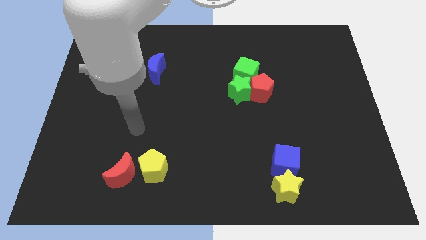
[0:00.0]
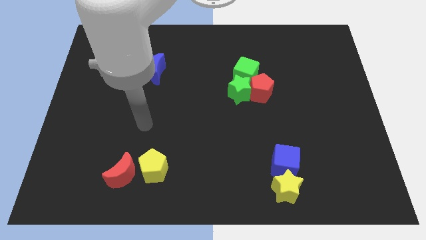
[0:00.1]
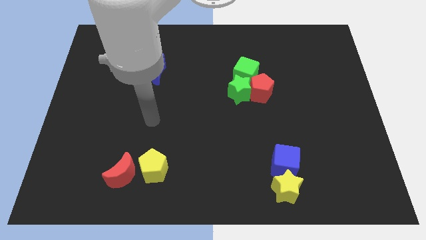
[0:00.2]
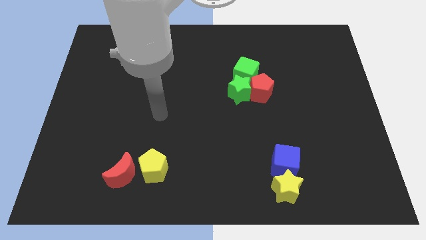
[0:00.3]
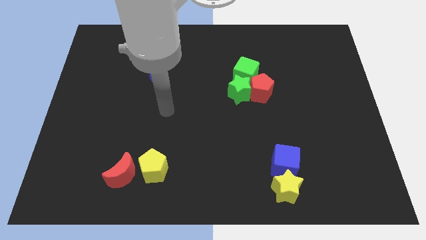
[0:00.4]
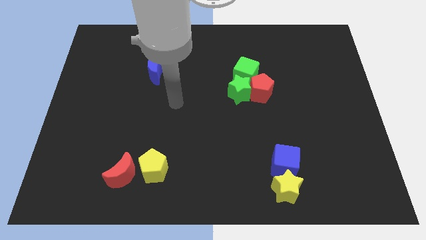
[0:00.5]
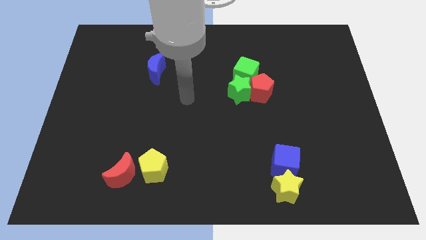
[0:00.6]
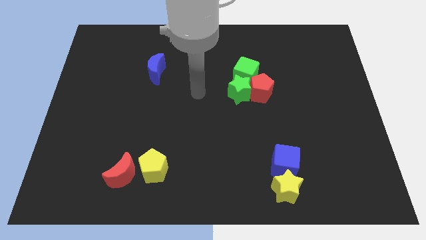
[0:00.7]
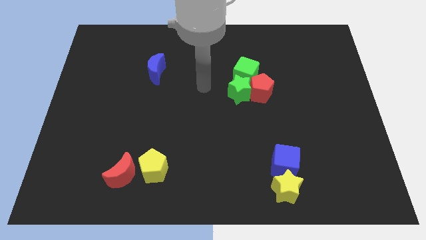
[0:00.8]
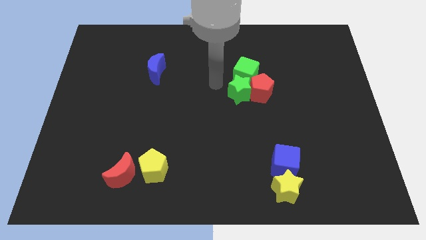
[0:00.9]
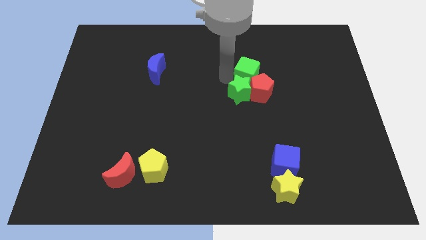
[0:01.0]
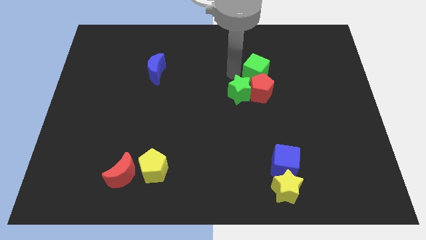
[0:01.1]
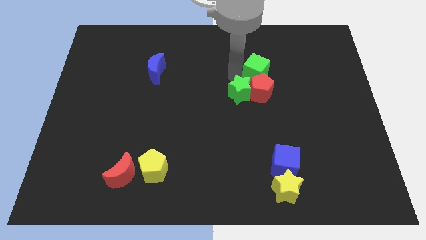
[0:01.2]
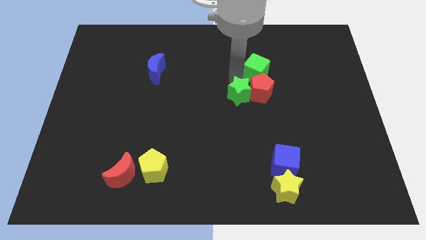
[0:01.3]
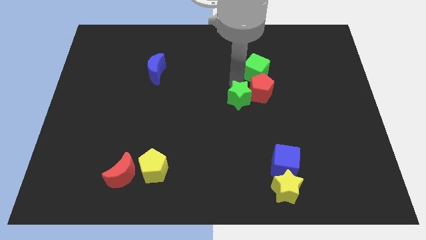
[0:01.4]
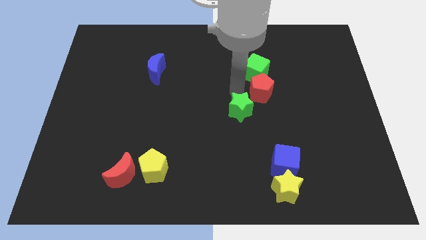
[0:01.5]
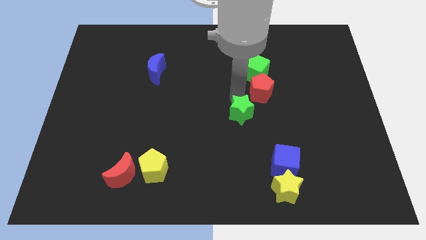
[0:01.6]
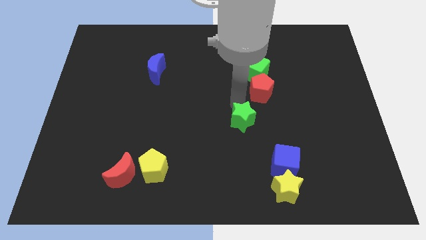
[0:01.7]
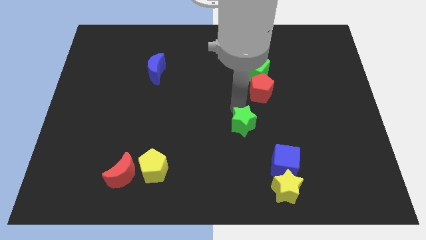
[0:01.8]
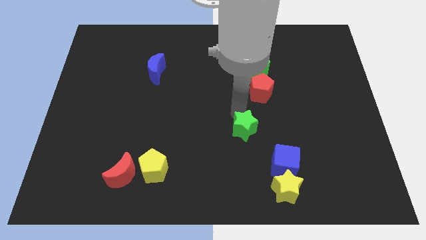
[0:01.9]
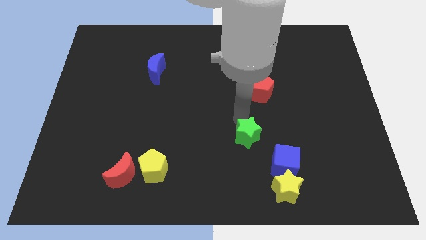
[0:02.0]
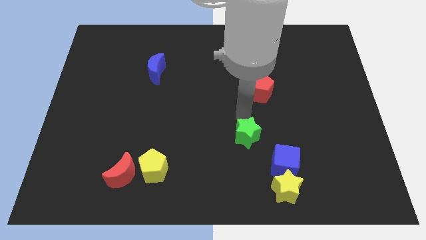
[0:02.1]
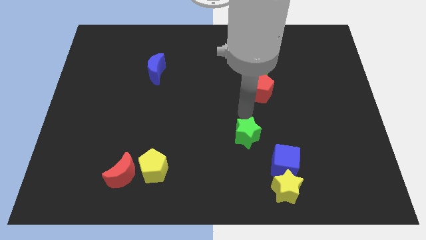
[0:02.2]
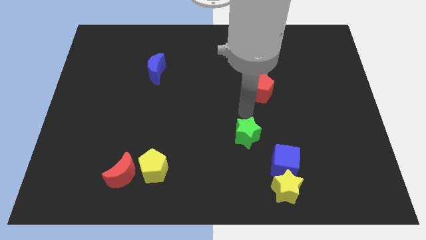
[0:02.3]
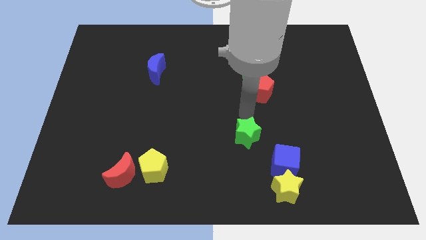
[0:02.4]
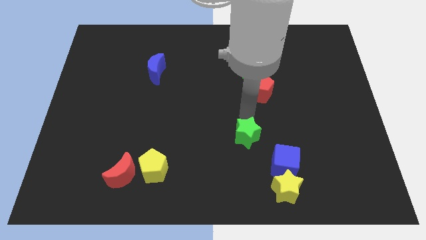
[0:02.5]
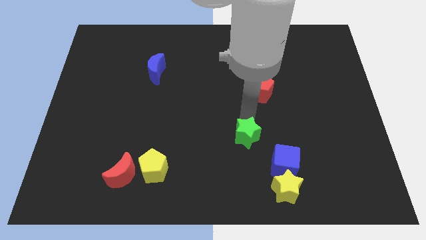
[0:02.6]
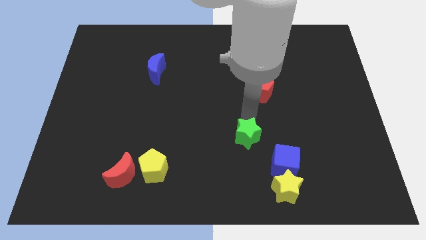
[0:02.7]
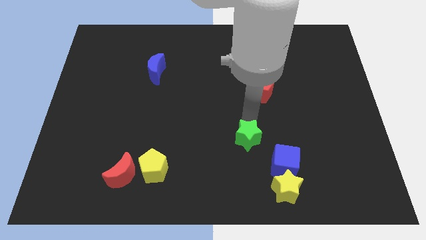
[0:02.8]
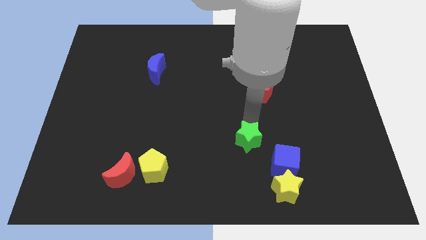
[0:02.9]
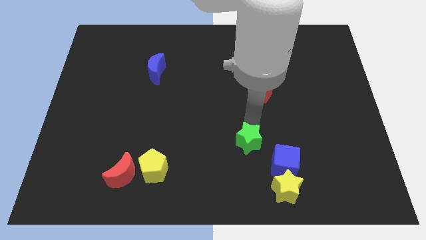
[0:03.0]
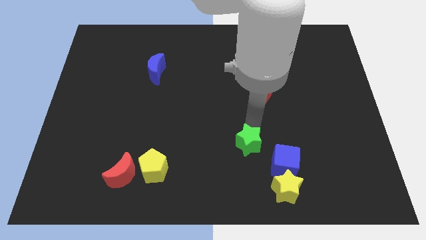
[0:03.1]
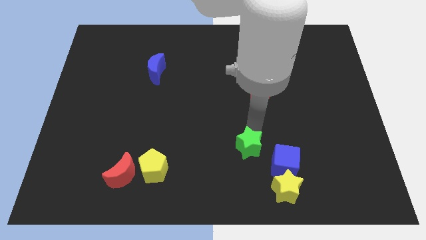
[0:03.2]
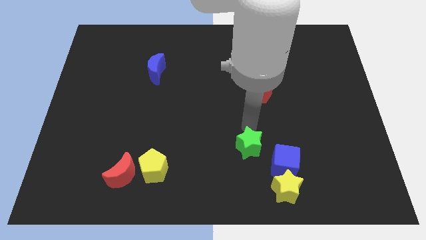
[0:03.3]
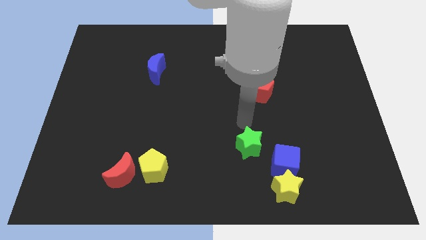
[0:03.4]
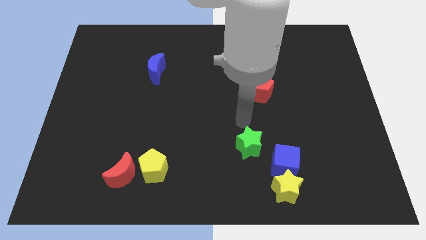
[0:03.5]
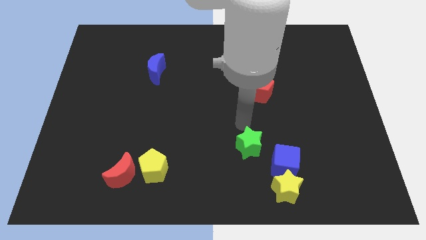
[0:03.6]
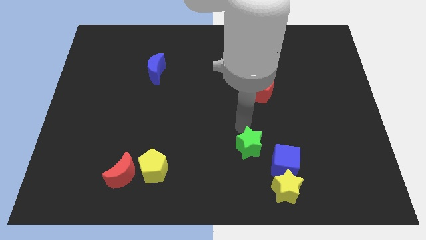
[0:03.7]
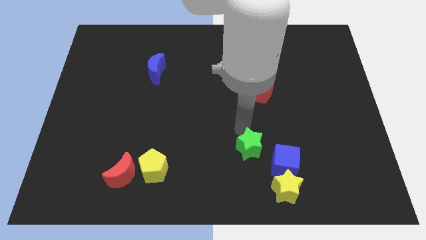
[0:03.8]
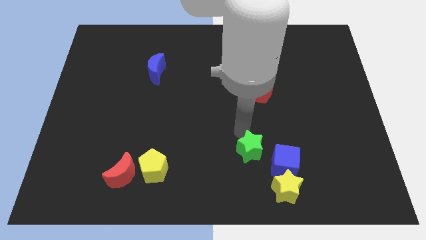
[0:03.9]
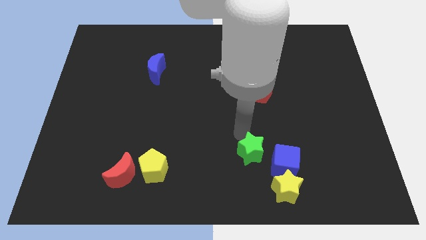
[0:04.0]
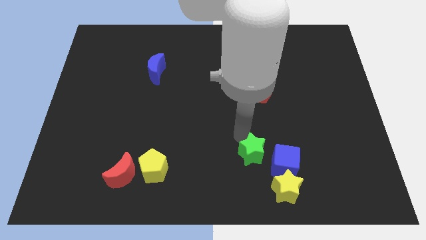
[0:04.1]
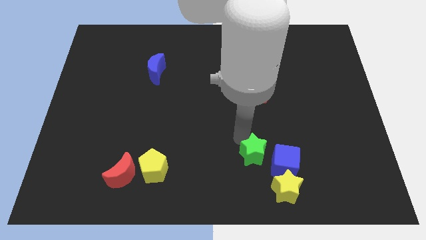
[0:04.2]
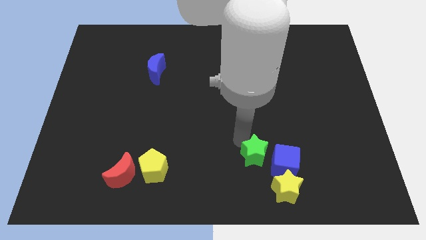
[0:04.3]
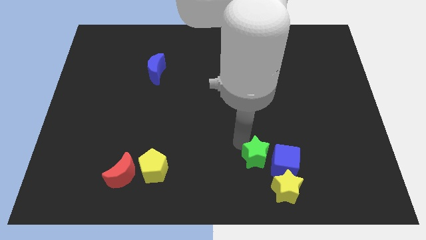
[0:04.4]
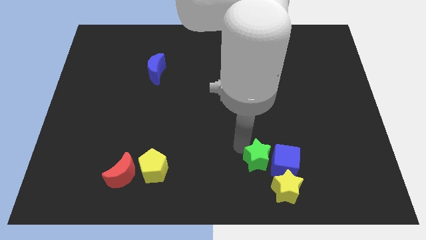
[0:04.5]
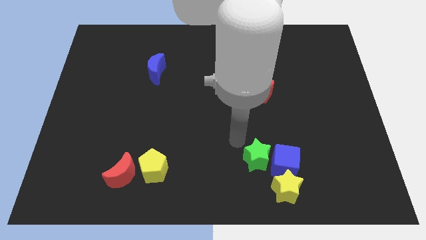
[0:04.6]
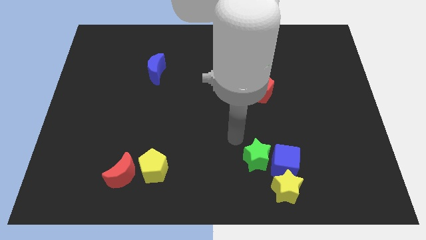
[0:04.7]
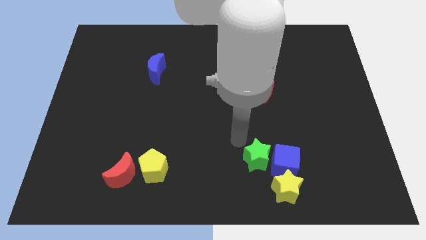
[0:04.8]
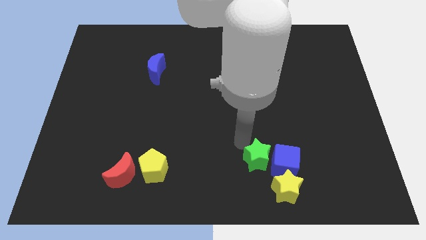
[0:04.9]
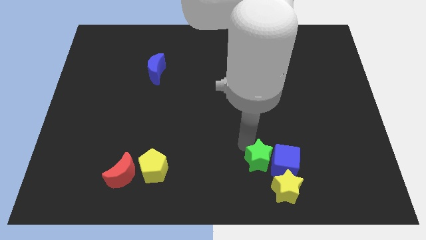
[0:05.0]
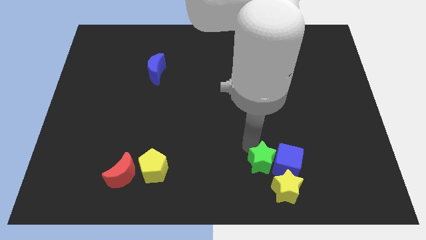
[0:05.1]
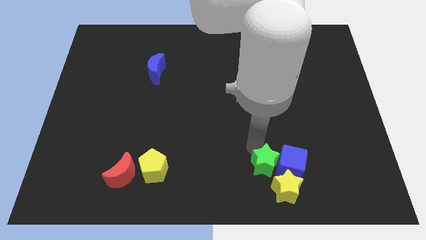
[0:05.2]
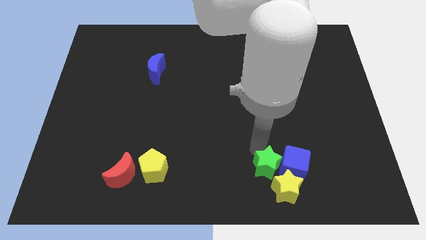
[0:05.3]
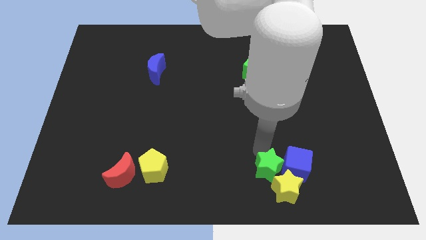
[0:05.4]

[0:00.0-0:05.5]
push the green star towards the yellow star

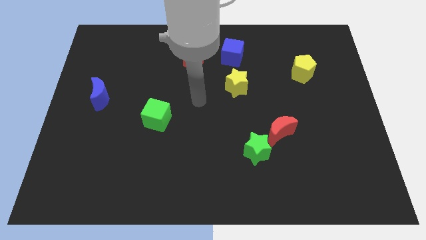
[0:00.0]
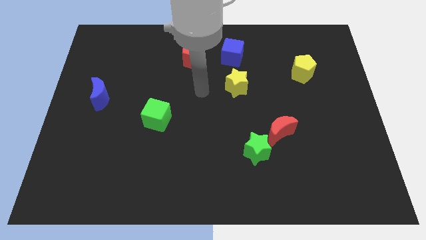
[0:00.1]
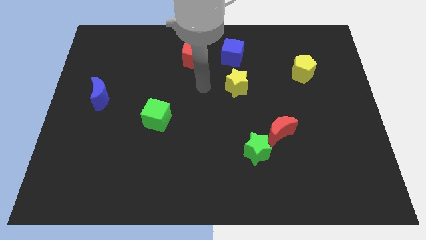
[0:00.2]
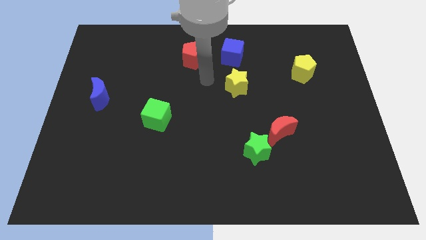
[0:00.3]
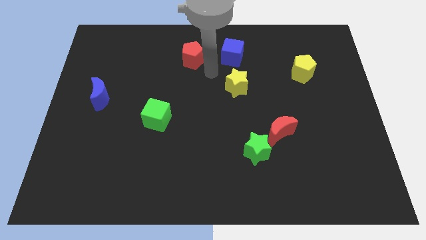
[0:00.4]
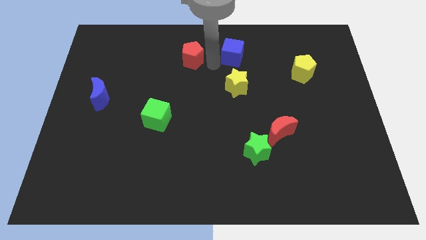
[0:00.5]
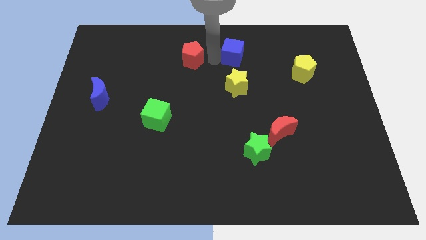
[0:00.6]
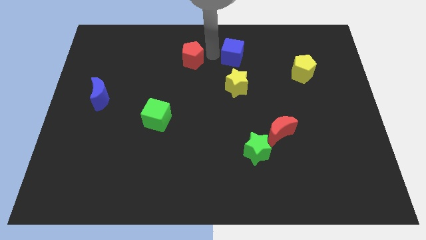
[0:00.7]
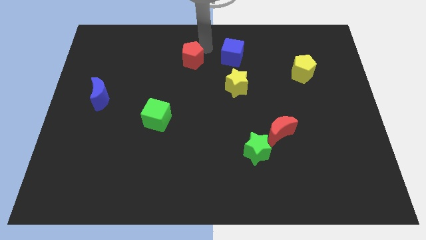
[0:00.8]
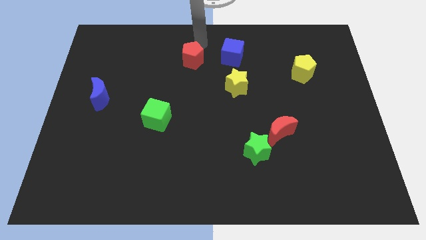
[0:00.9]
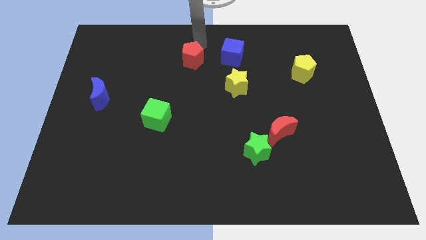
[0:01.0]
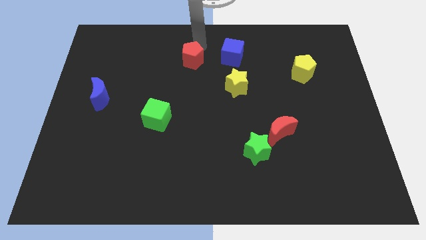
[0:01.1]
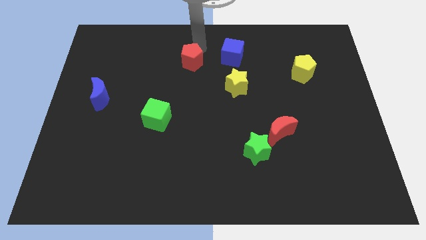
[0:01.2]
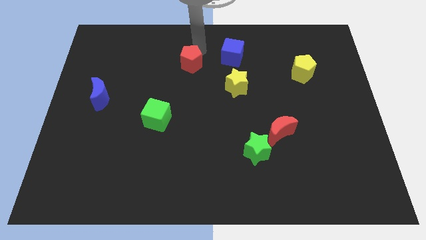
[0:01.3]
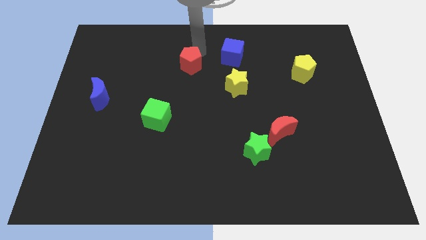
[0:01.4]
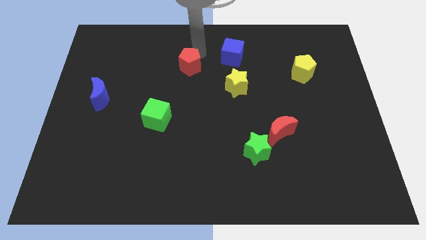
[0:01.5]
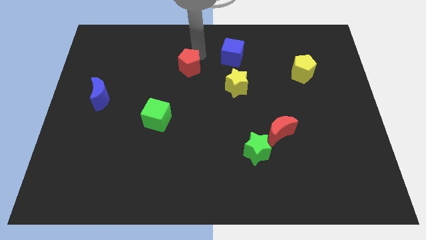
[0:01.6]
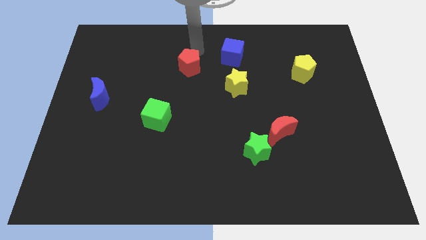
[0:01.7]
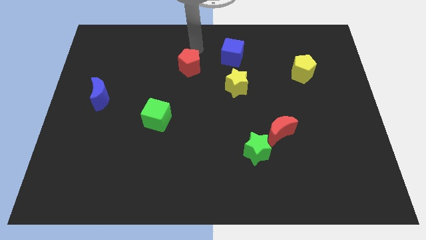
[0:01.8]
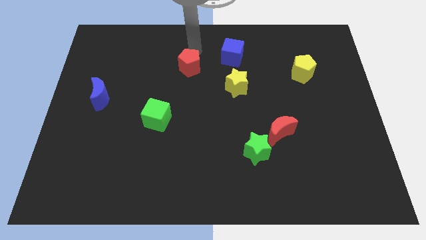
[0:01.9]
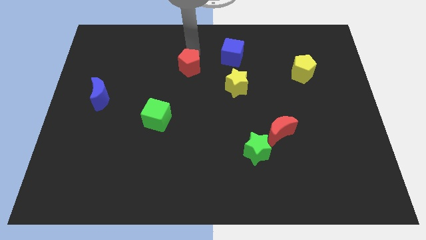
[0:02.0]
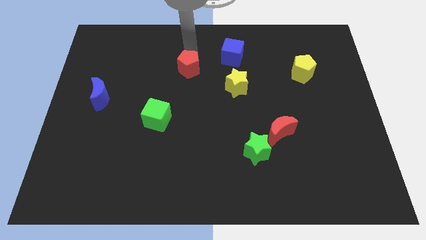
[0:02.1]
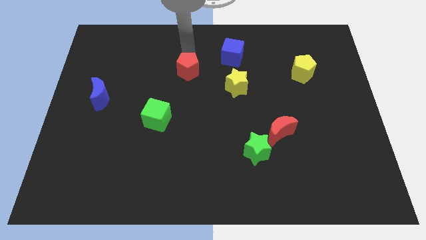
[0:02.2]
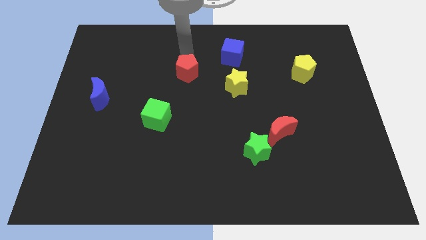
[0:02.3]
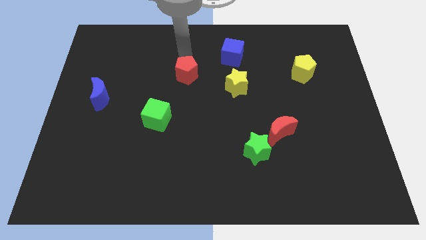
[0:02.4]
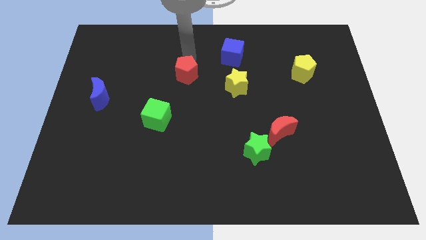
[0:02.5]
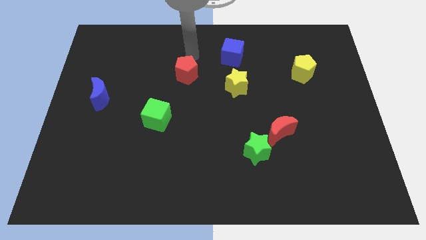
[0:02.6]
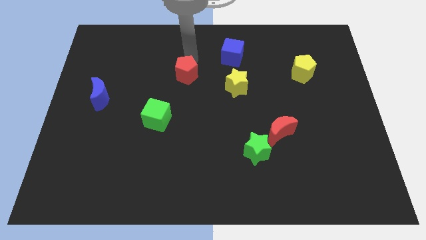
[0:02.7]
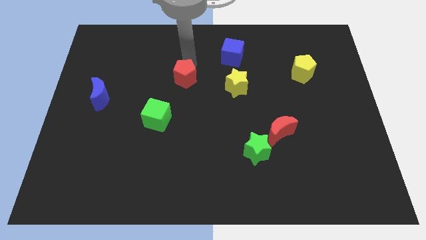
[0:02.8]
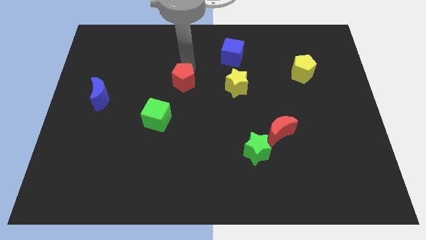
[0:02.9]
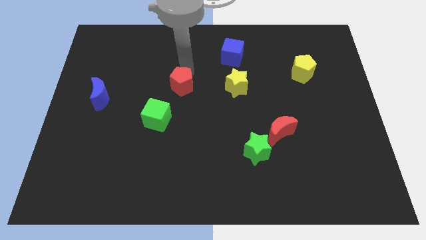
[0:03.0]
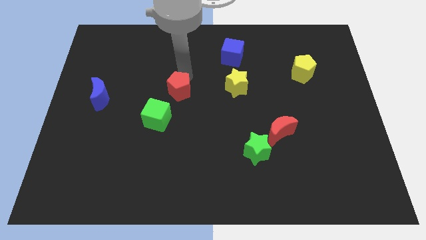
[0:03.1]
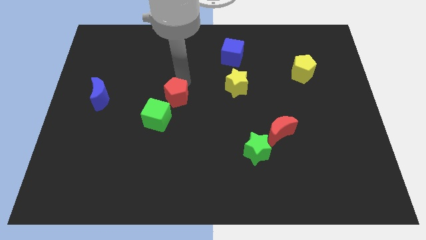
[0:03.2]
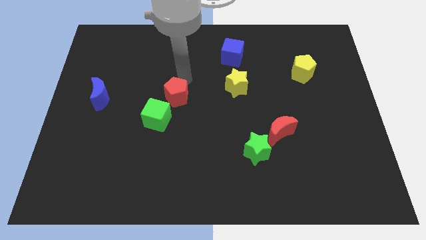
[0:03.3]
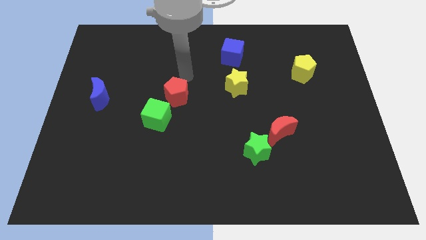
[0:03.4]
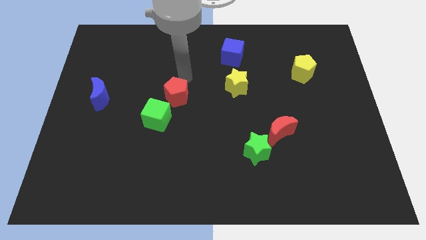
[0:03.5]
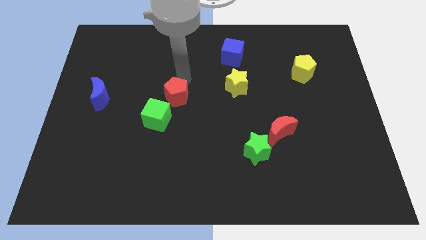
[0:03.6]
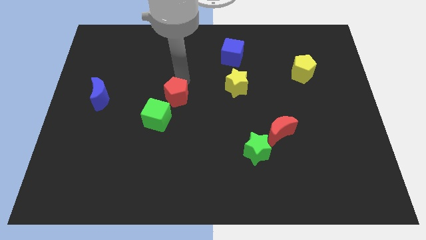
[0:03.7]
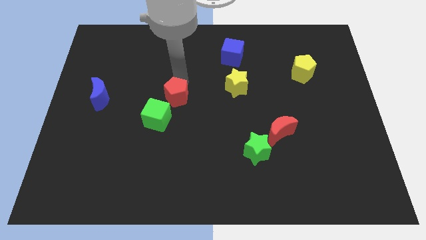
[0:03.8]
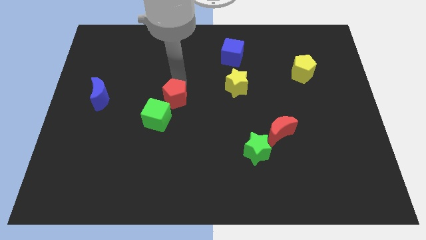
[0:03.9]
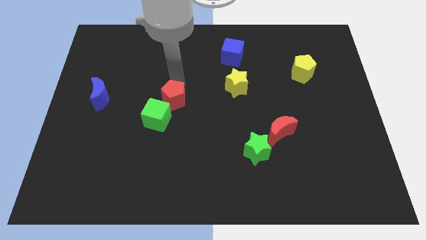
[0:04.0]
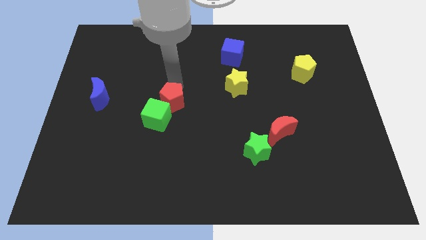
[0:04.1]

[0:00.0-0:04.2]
slide the red pentagon next to the green cube
